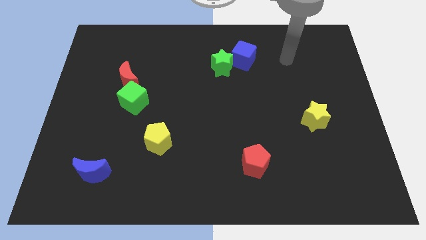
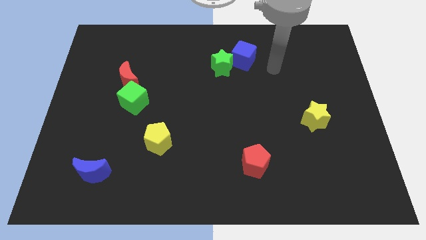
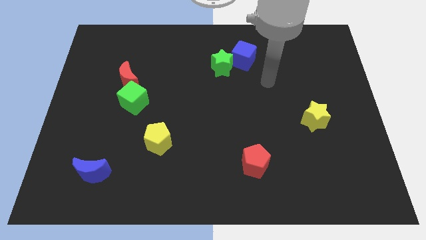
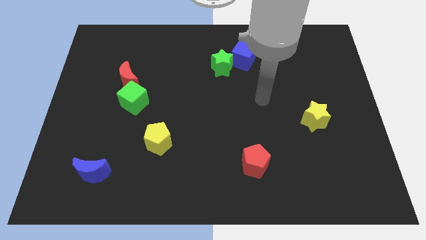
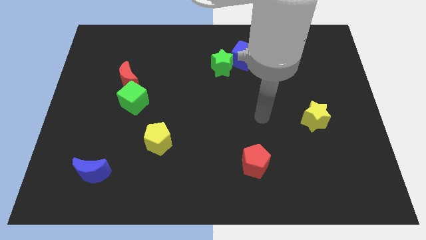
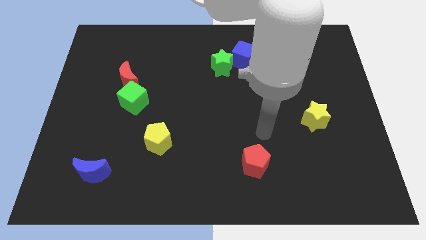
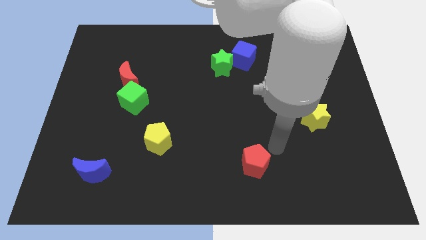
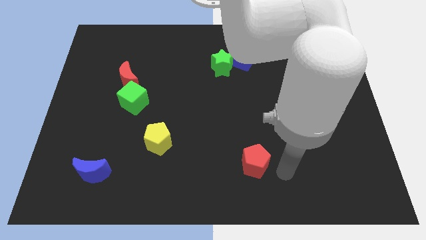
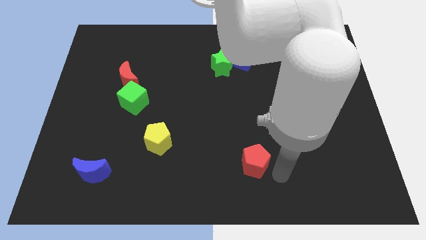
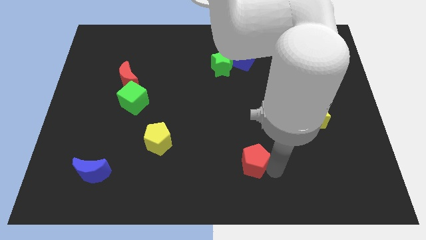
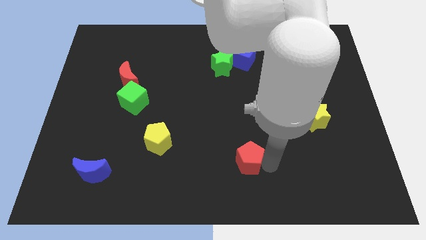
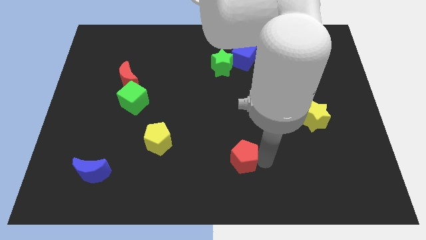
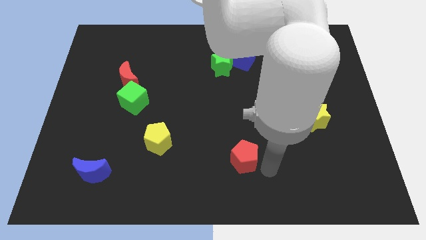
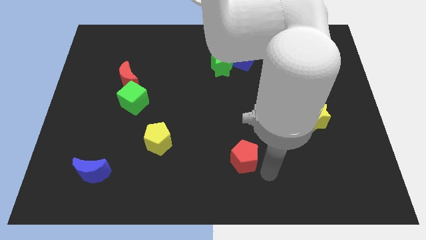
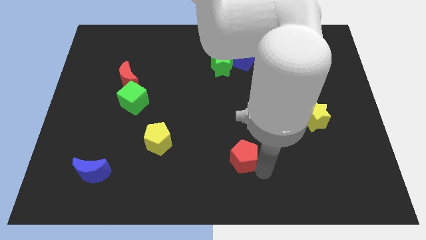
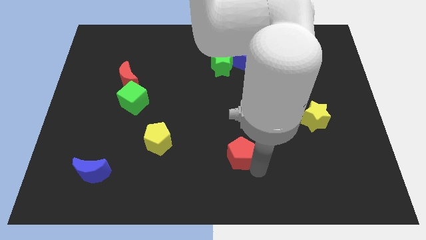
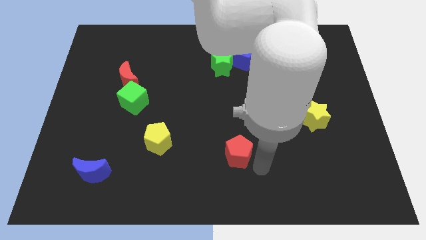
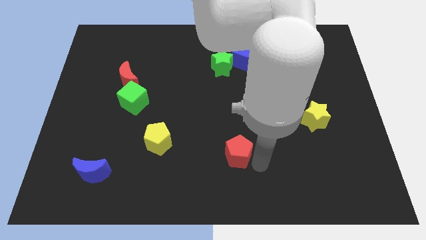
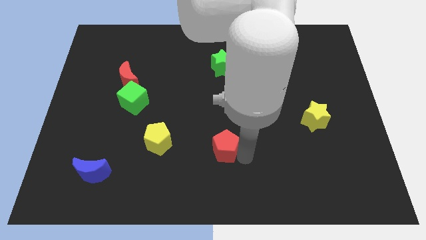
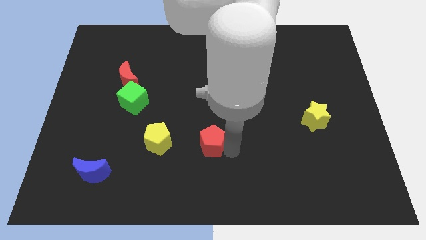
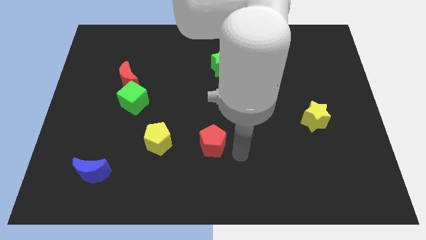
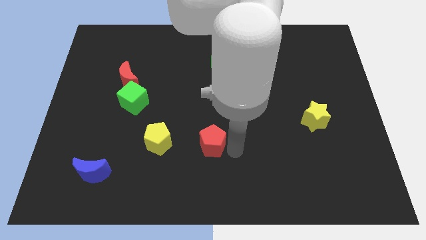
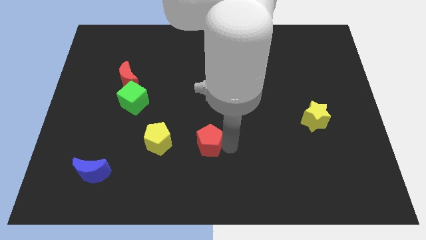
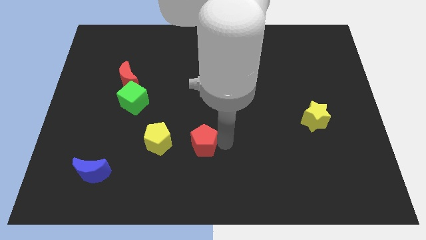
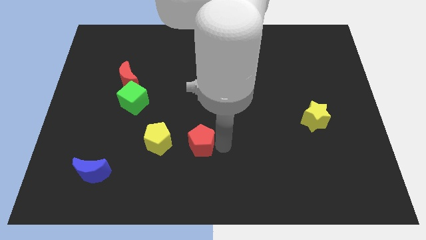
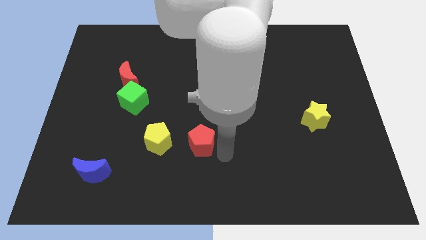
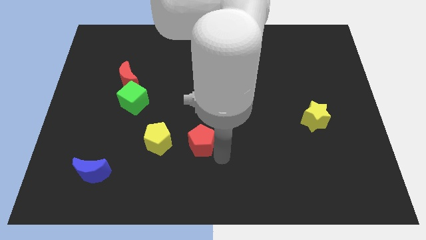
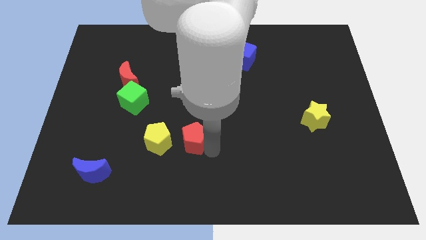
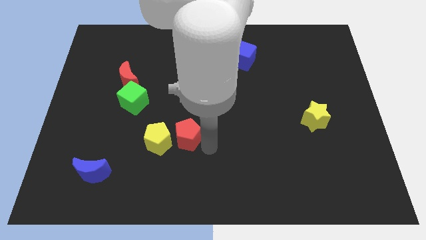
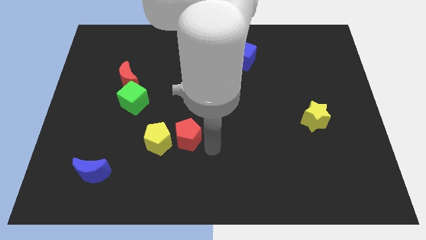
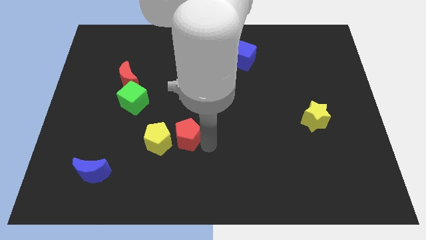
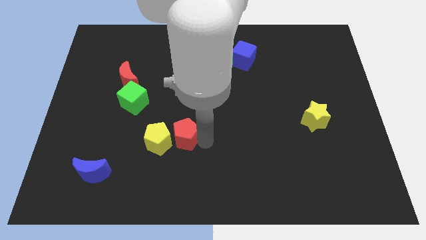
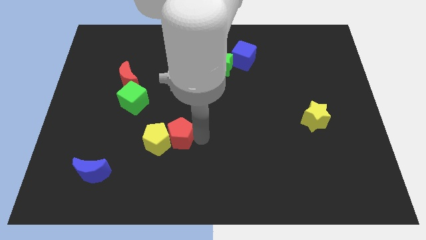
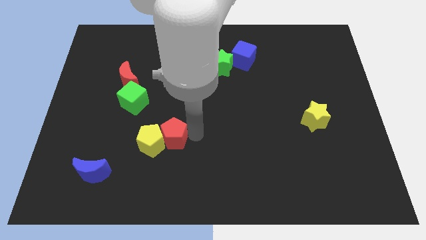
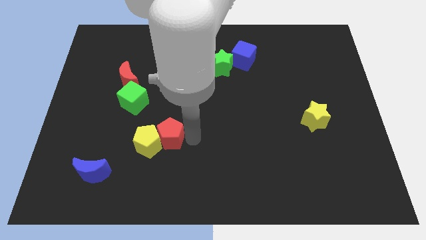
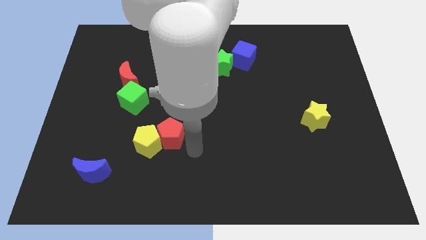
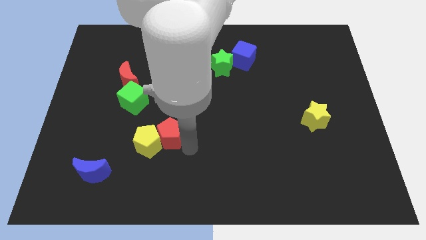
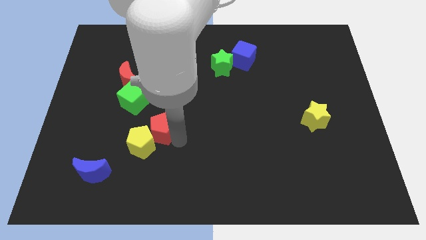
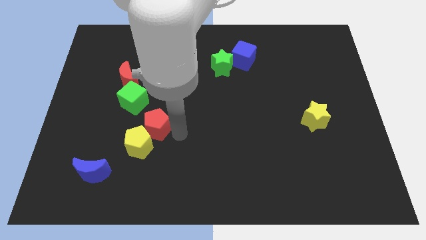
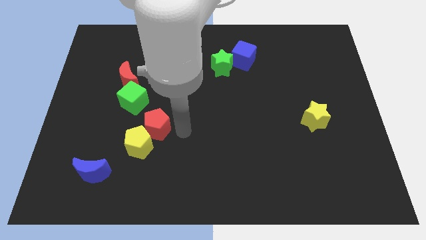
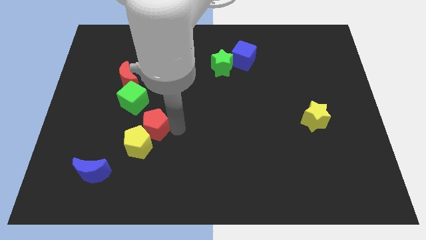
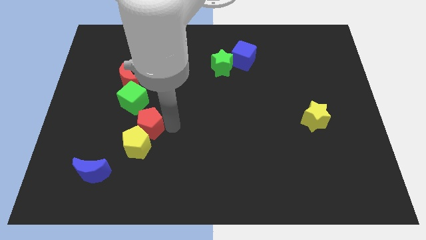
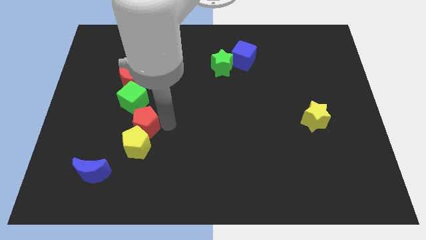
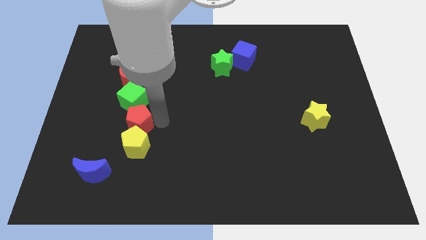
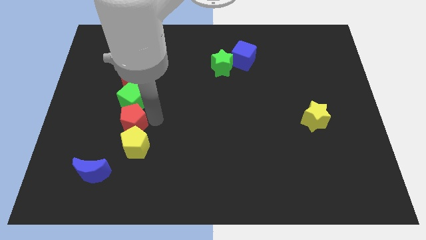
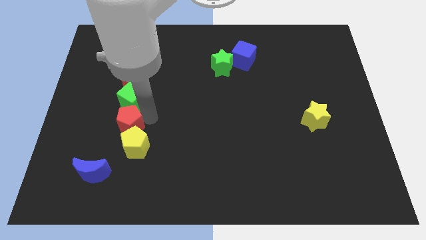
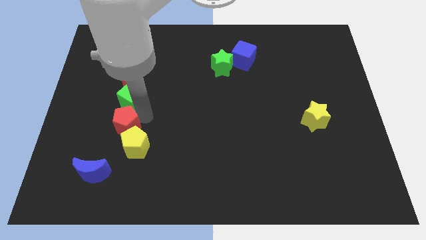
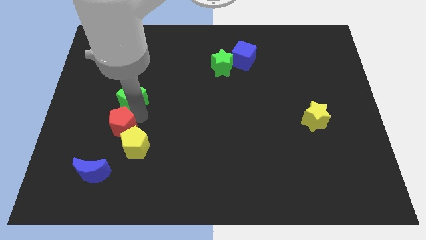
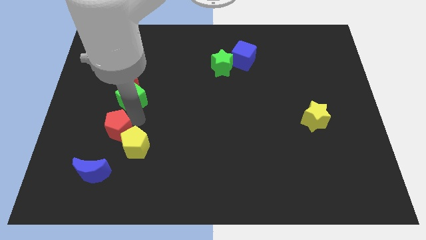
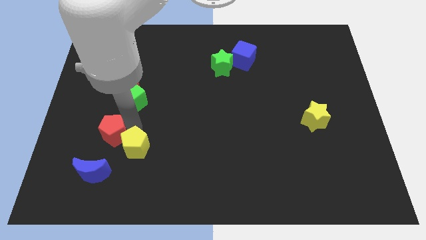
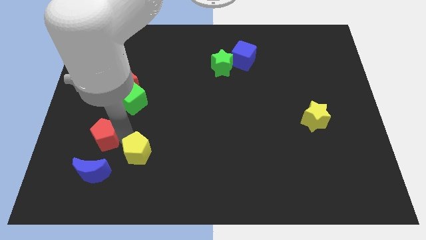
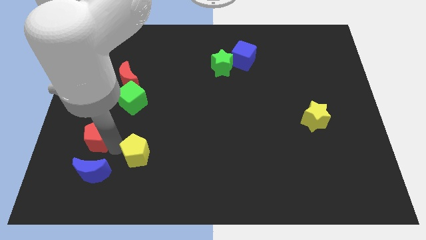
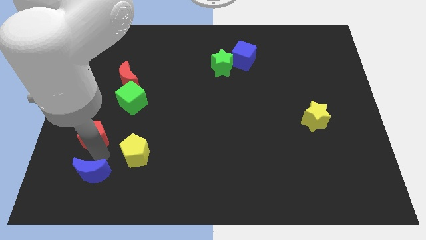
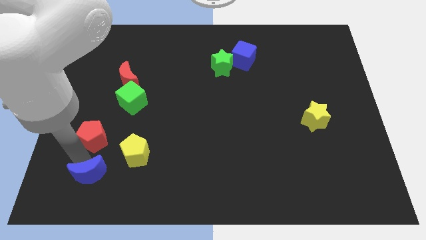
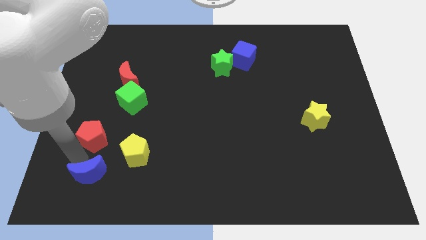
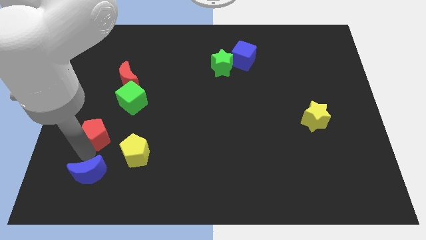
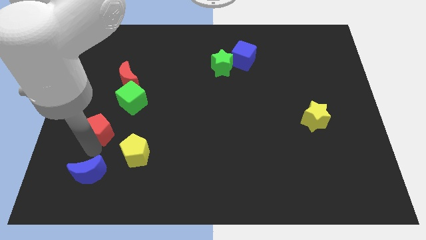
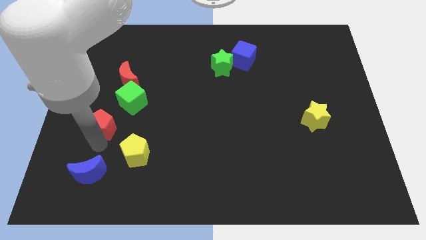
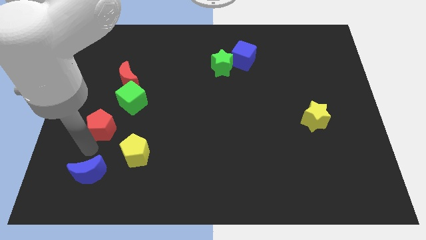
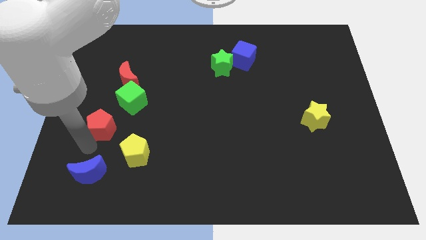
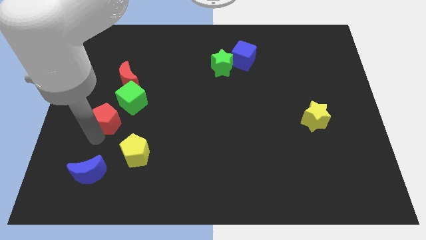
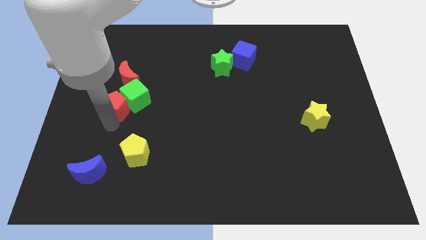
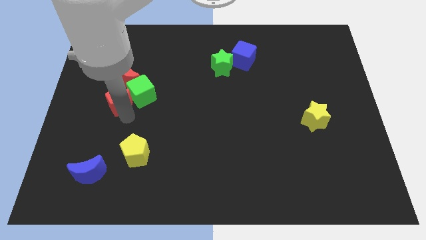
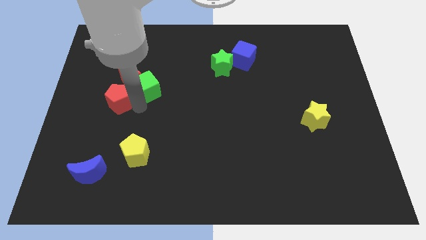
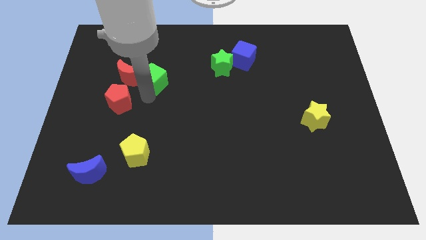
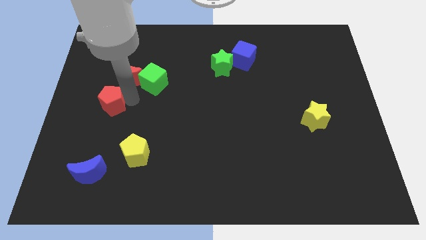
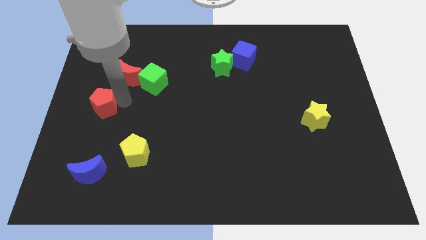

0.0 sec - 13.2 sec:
push the red pentagon to the left side
